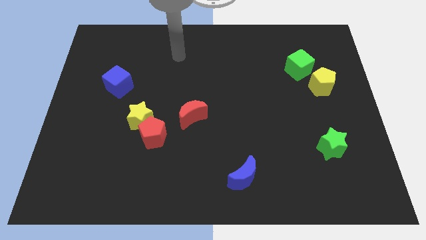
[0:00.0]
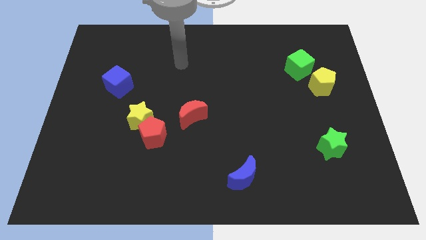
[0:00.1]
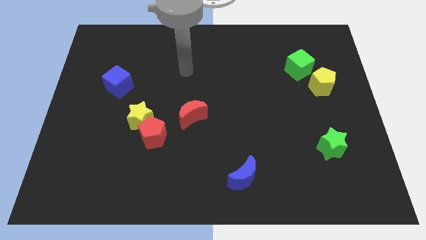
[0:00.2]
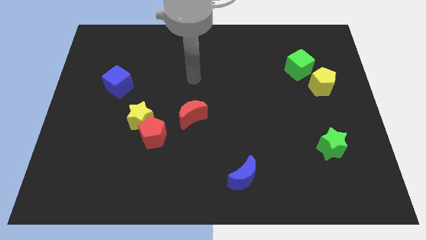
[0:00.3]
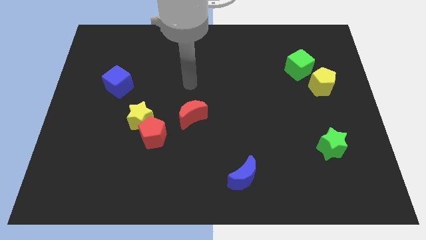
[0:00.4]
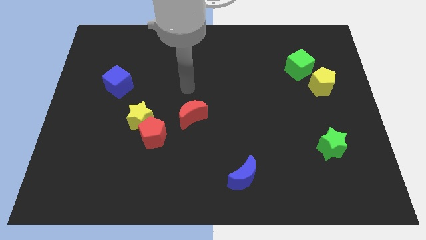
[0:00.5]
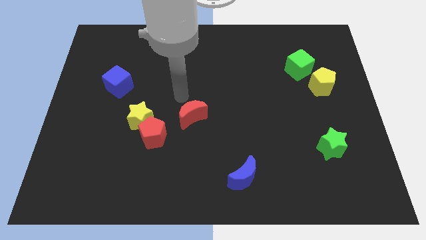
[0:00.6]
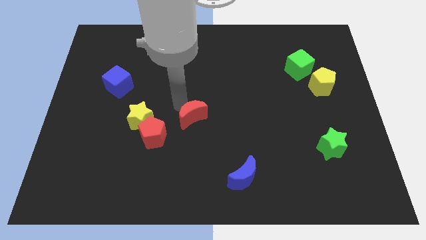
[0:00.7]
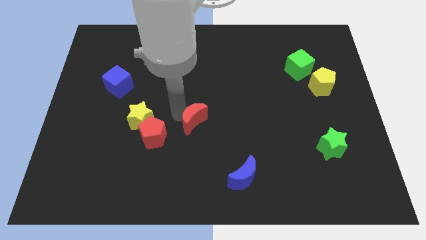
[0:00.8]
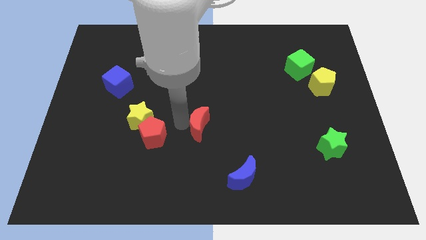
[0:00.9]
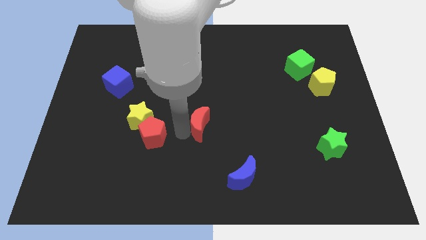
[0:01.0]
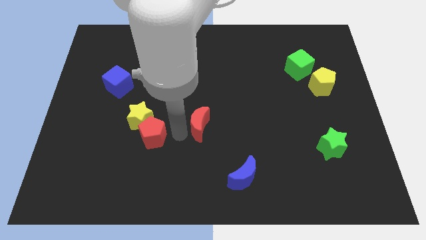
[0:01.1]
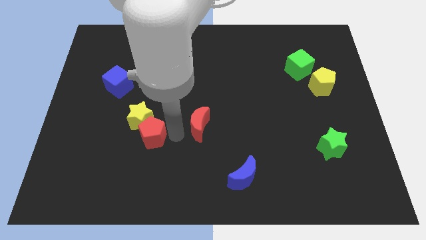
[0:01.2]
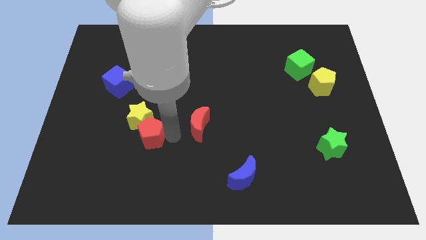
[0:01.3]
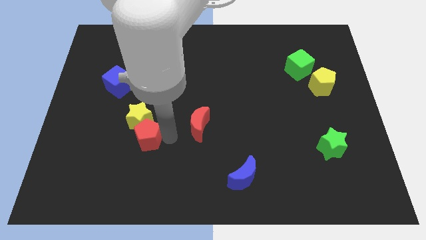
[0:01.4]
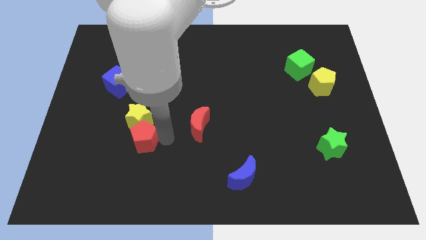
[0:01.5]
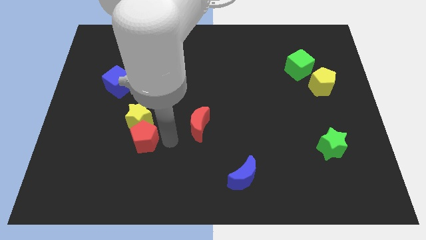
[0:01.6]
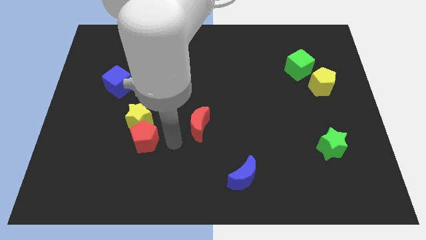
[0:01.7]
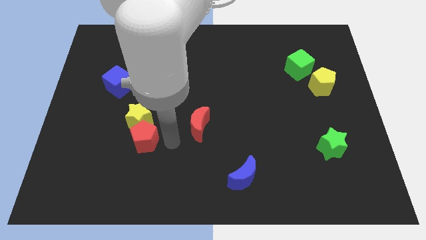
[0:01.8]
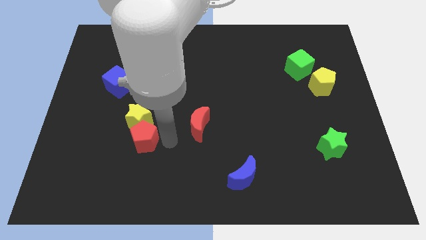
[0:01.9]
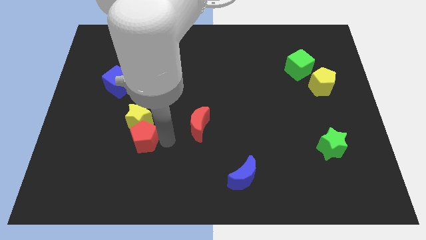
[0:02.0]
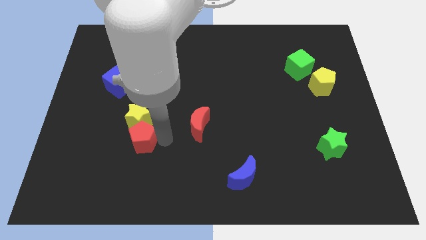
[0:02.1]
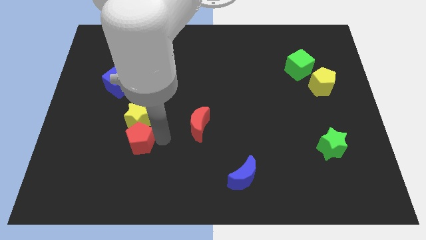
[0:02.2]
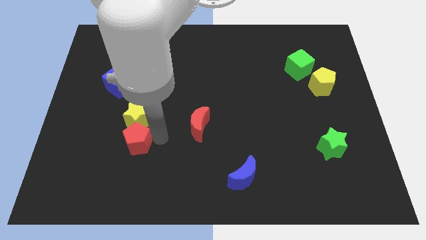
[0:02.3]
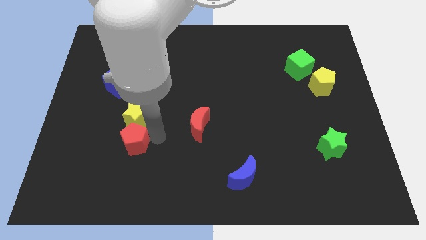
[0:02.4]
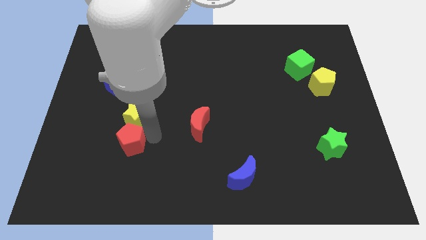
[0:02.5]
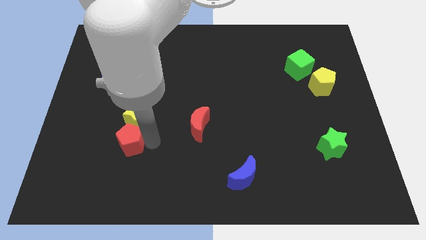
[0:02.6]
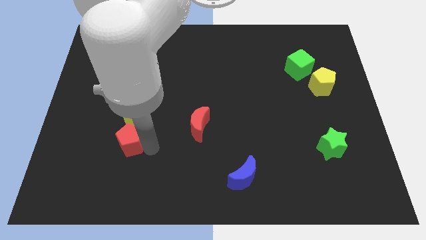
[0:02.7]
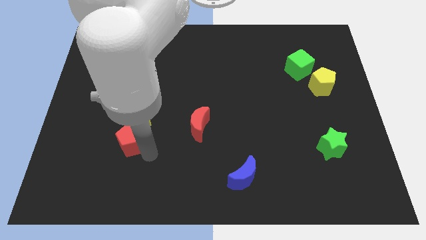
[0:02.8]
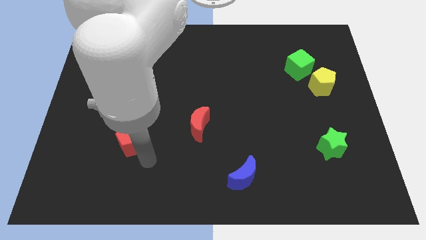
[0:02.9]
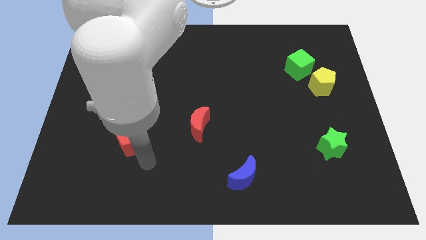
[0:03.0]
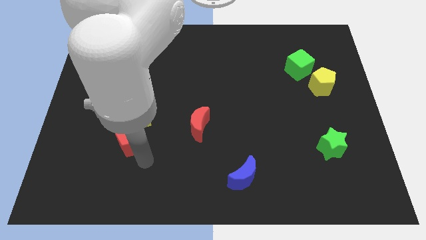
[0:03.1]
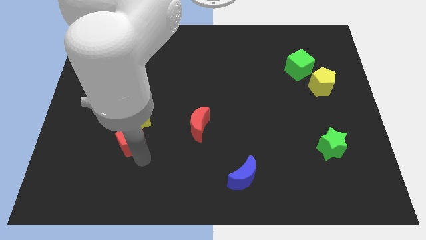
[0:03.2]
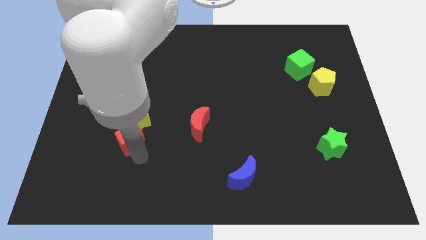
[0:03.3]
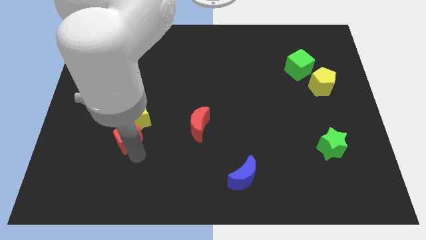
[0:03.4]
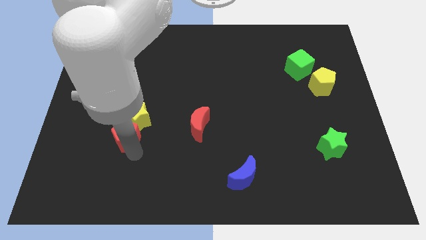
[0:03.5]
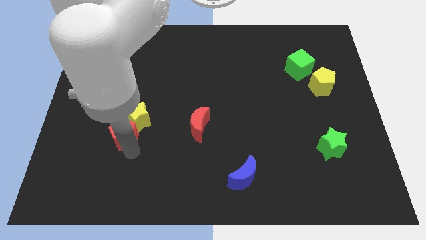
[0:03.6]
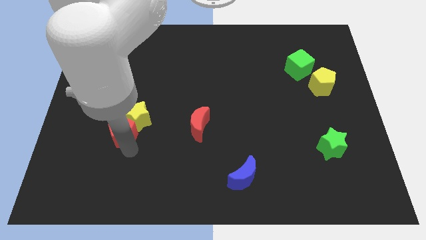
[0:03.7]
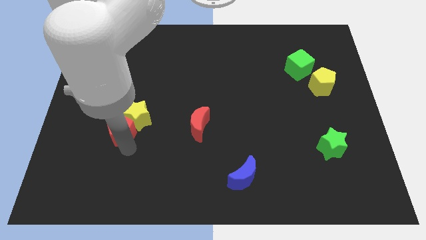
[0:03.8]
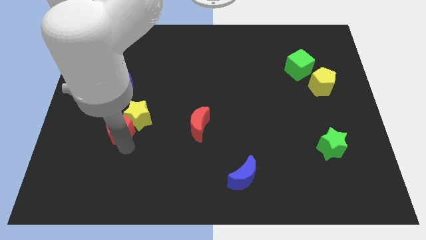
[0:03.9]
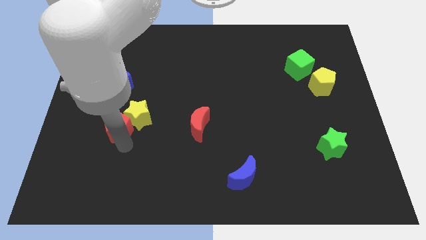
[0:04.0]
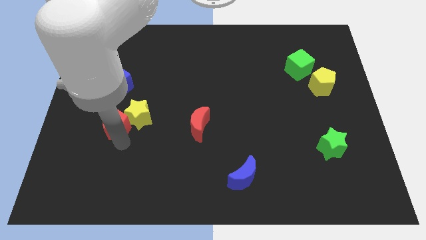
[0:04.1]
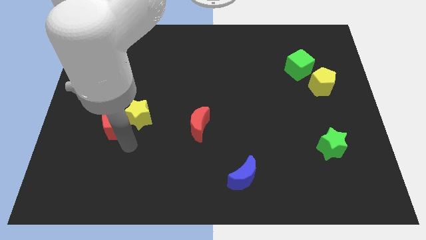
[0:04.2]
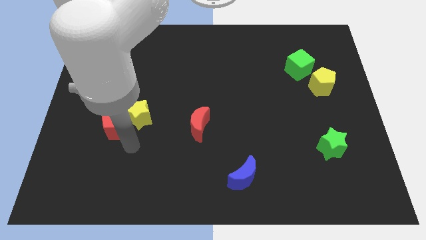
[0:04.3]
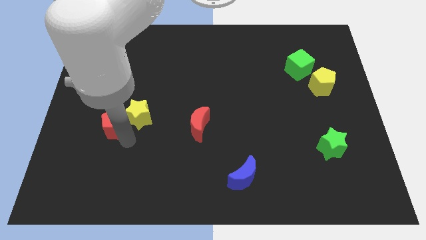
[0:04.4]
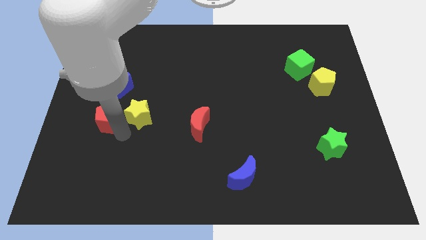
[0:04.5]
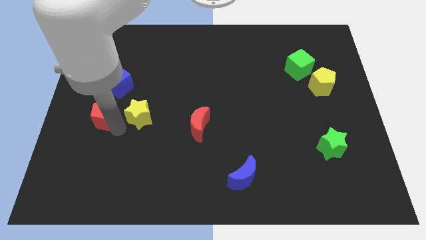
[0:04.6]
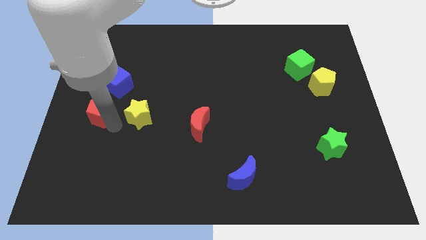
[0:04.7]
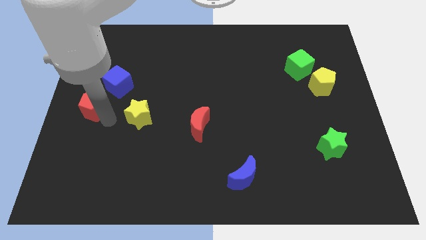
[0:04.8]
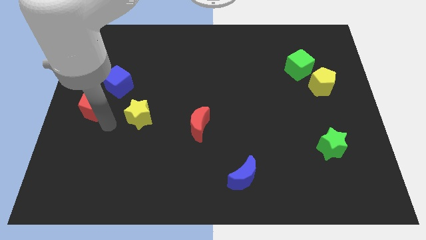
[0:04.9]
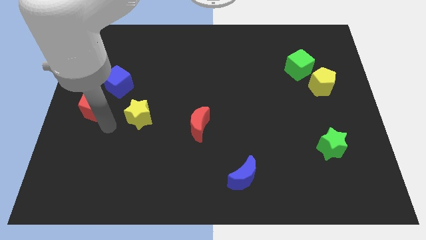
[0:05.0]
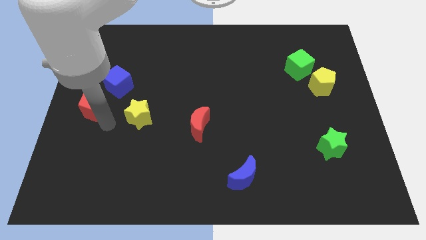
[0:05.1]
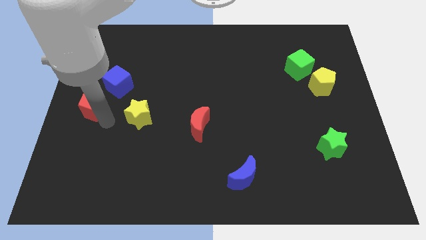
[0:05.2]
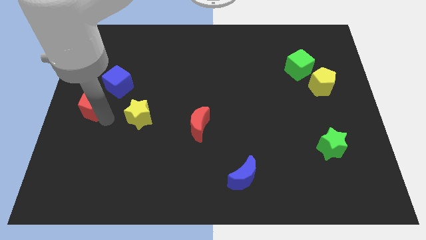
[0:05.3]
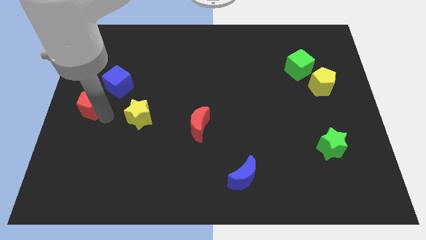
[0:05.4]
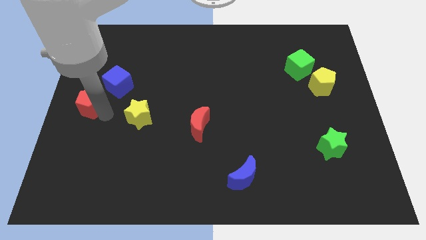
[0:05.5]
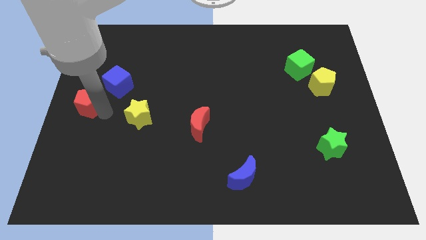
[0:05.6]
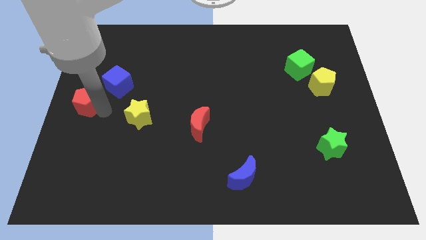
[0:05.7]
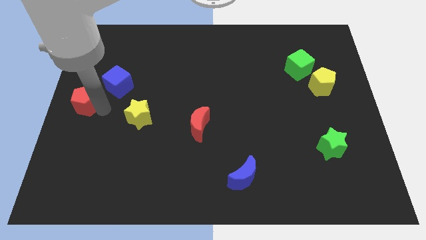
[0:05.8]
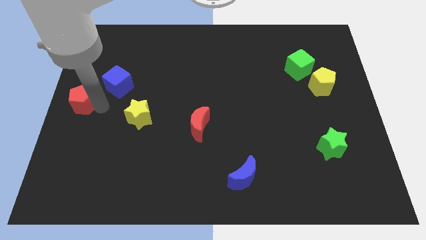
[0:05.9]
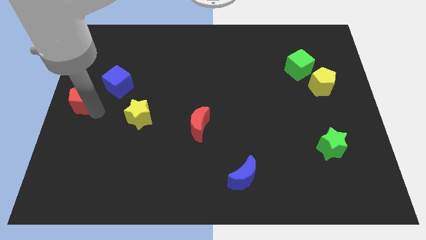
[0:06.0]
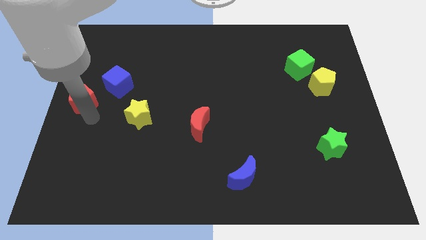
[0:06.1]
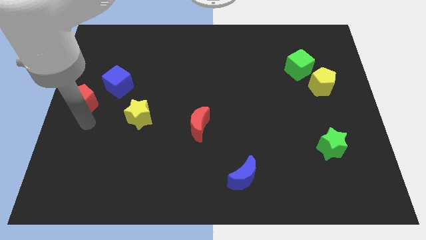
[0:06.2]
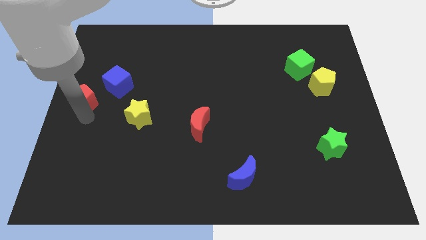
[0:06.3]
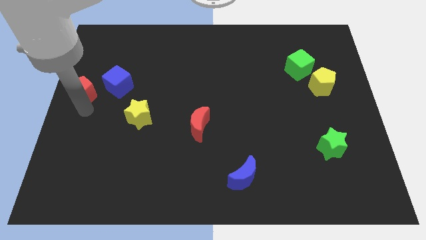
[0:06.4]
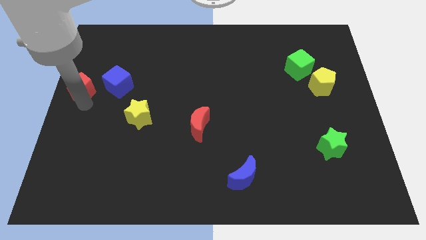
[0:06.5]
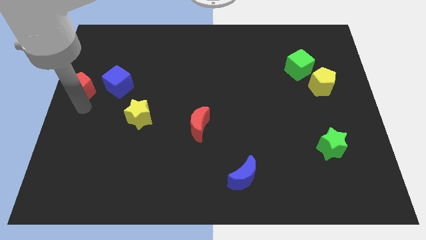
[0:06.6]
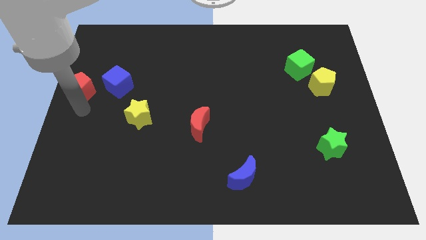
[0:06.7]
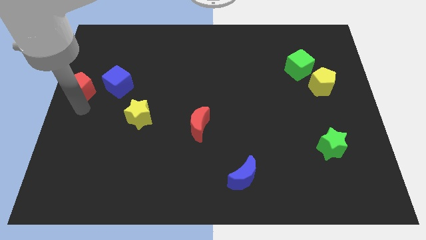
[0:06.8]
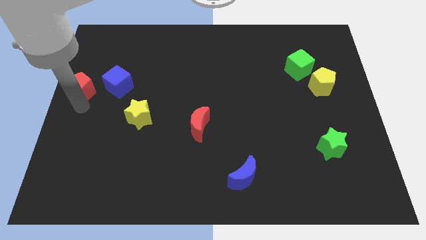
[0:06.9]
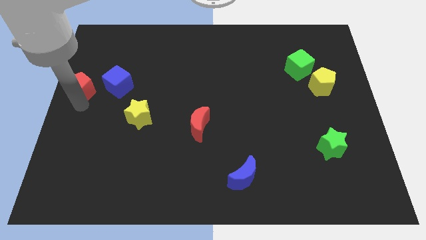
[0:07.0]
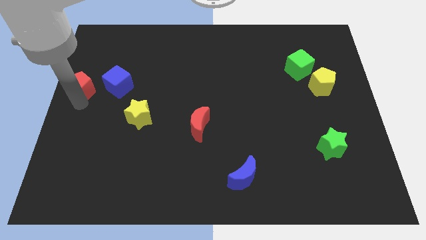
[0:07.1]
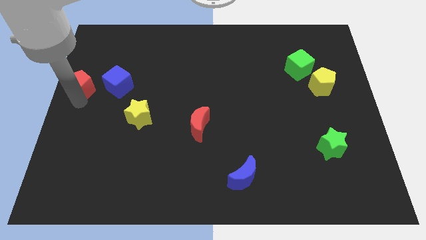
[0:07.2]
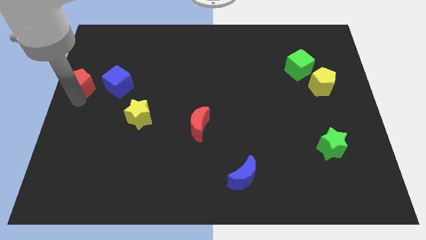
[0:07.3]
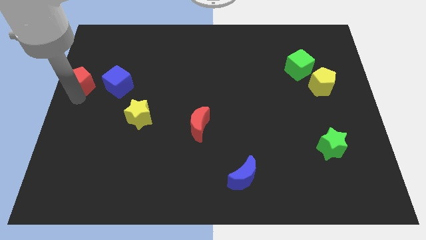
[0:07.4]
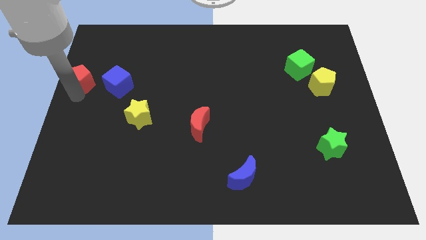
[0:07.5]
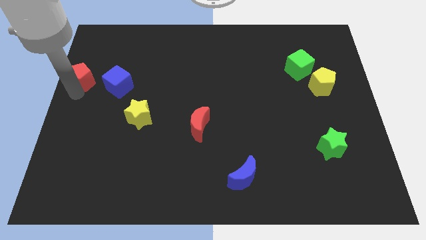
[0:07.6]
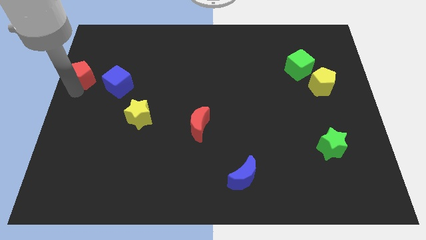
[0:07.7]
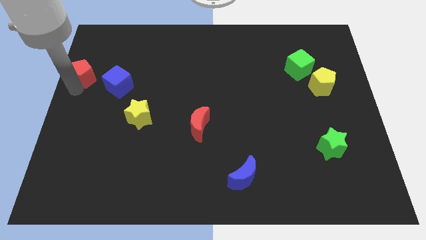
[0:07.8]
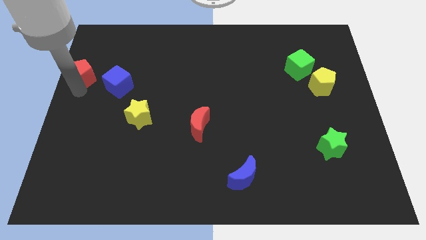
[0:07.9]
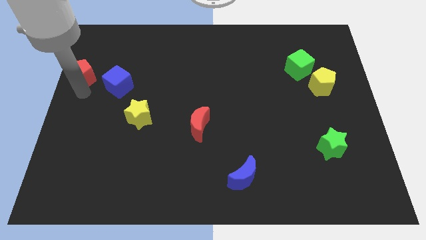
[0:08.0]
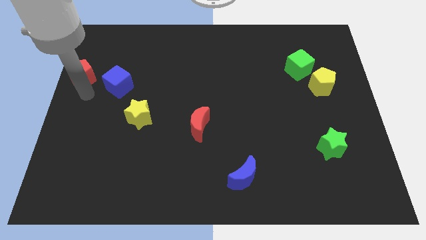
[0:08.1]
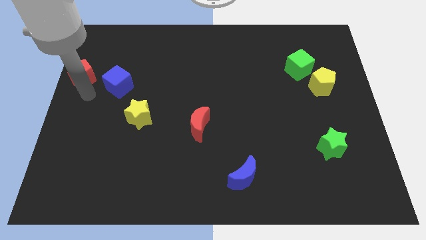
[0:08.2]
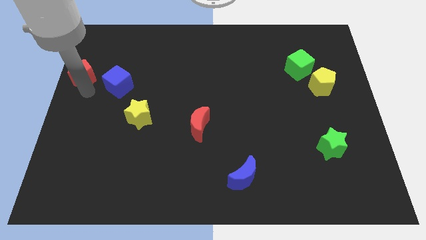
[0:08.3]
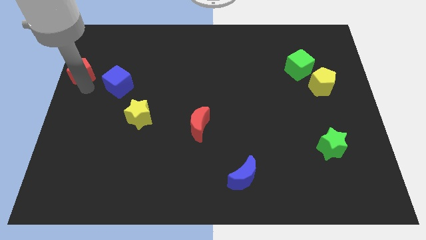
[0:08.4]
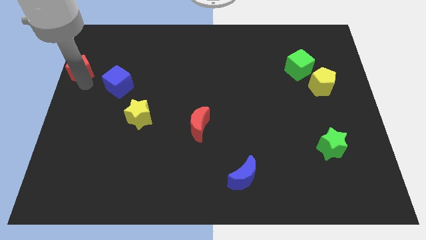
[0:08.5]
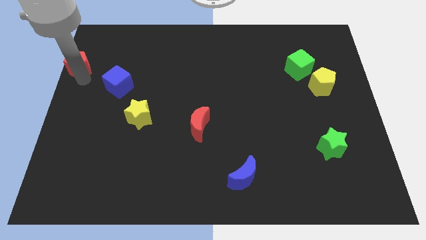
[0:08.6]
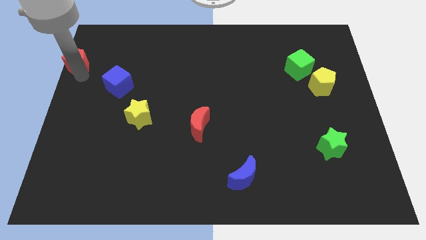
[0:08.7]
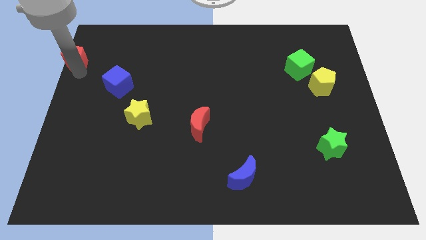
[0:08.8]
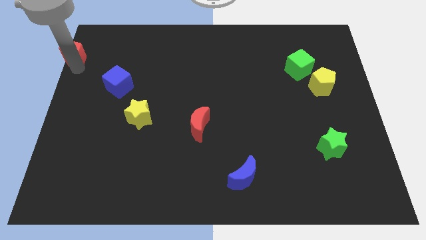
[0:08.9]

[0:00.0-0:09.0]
put the red pentagon to the top left of the board
